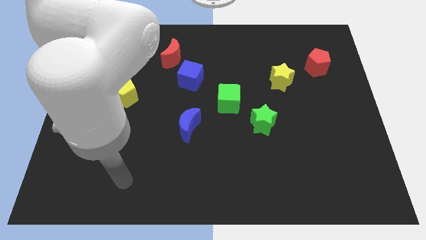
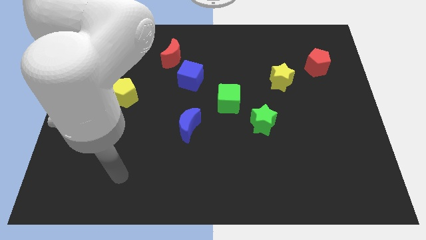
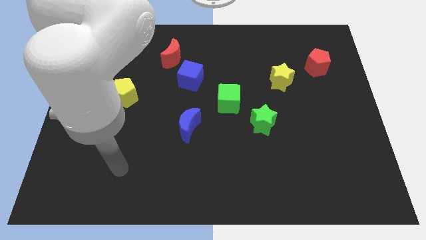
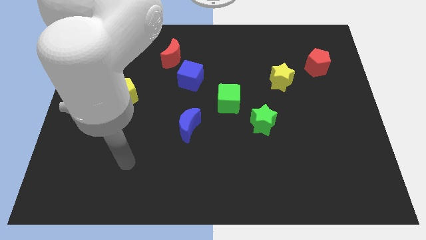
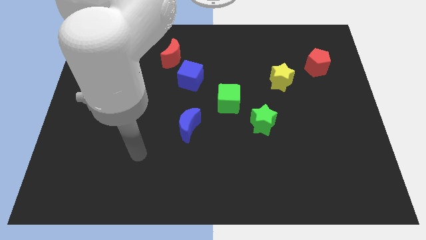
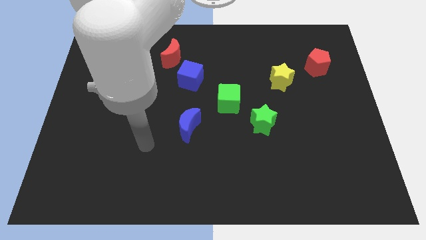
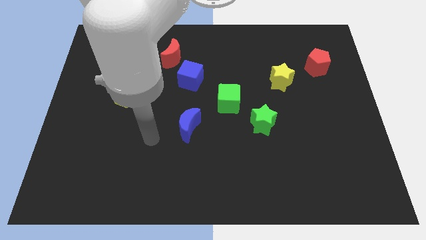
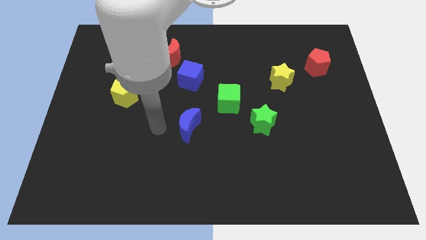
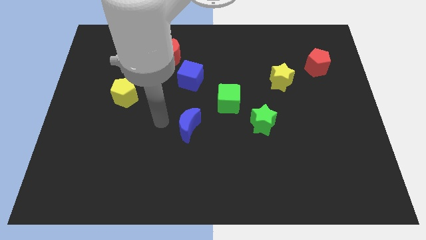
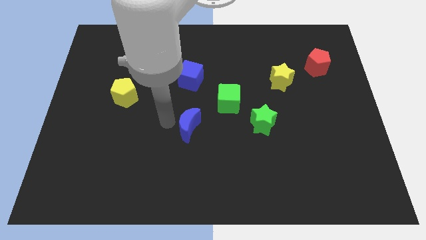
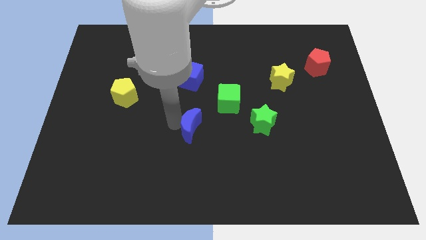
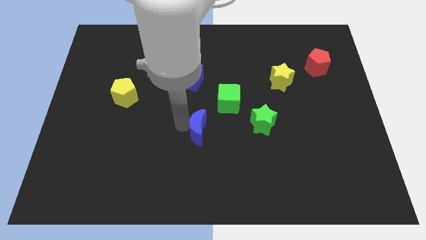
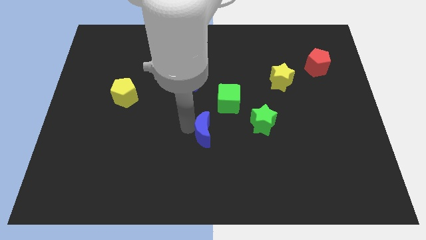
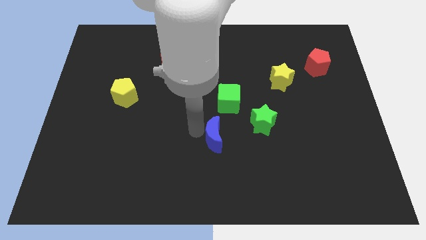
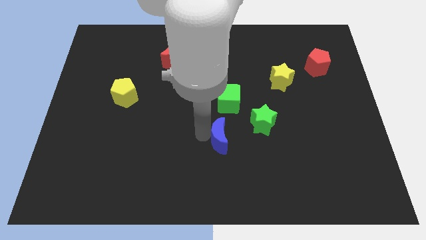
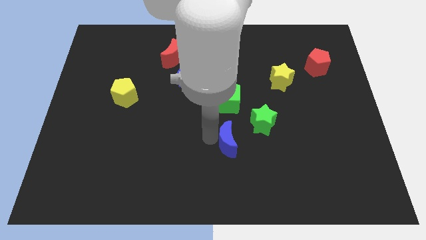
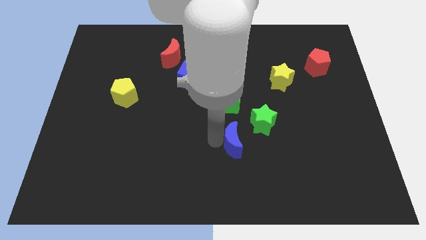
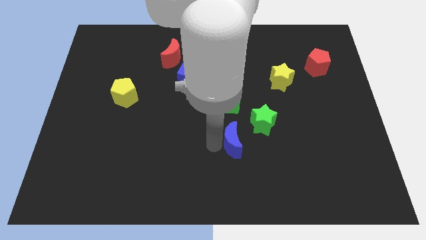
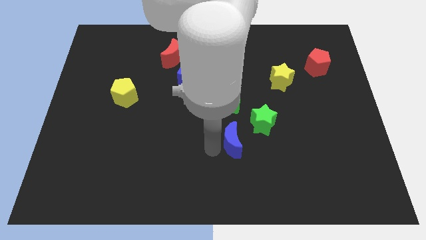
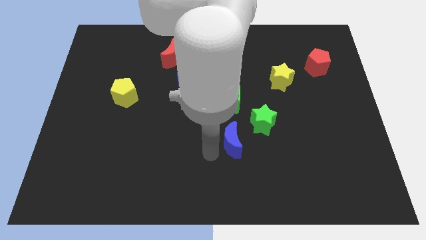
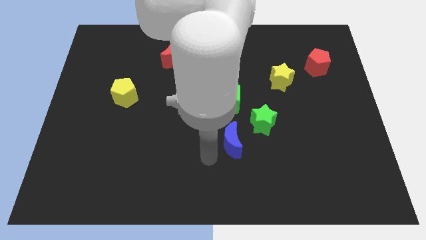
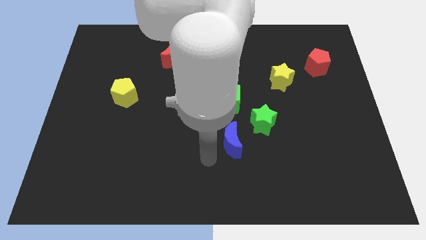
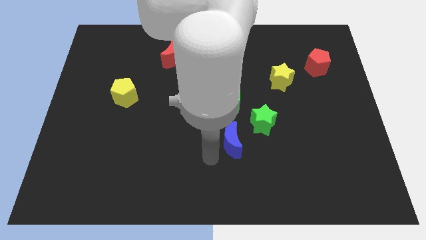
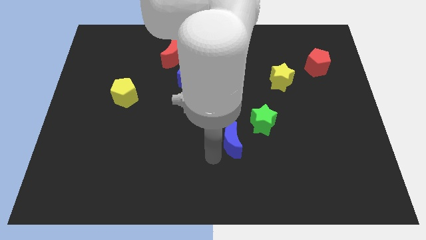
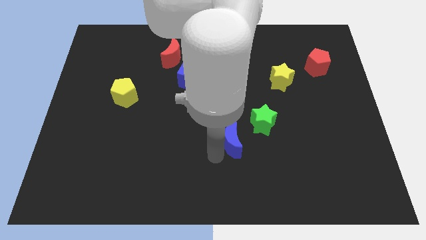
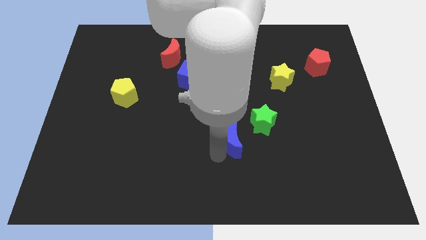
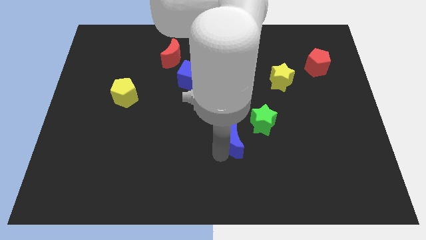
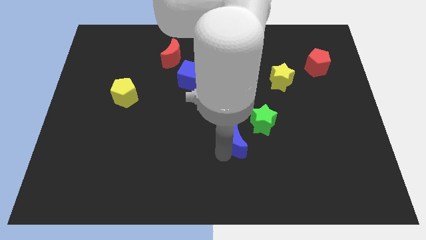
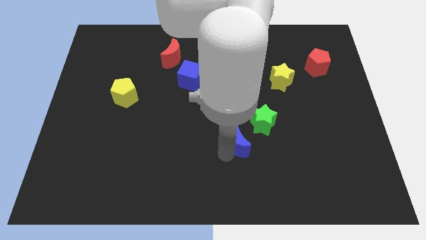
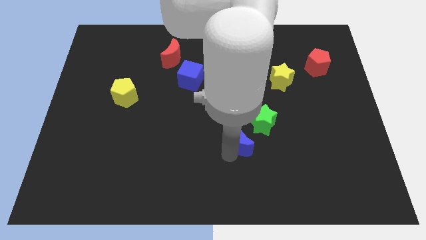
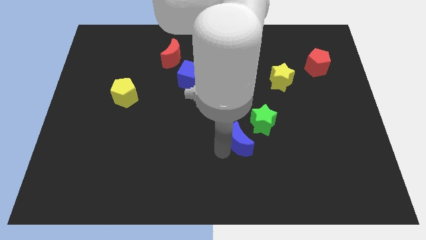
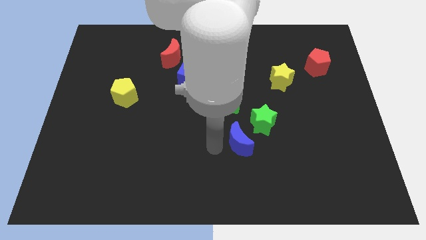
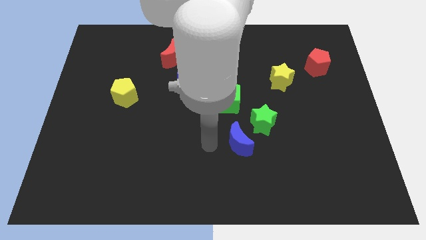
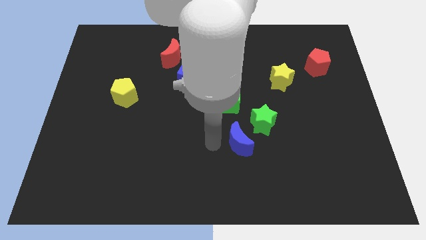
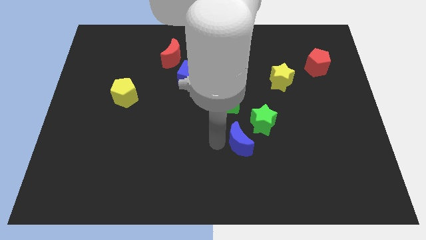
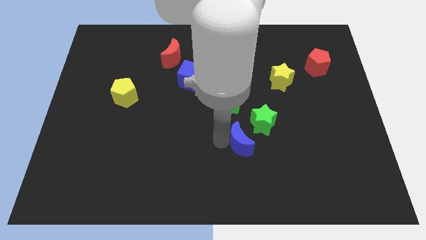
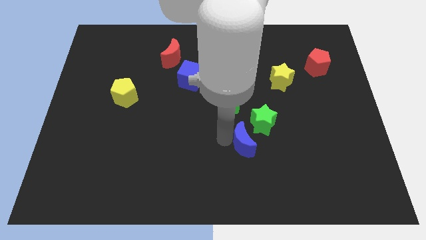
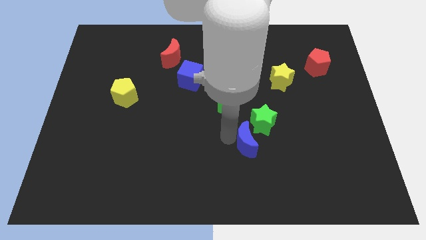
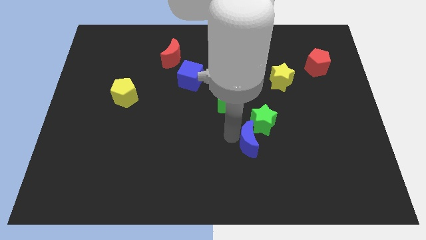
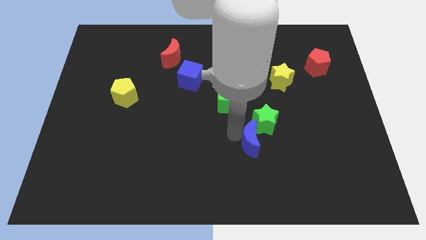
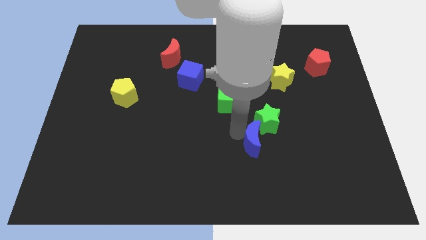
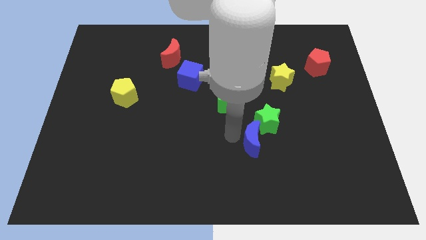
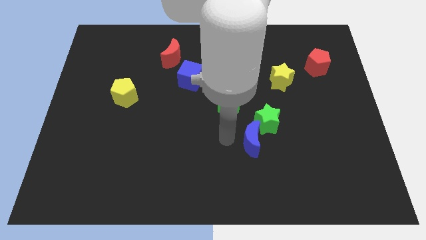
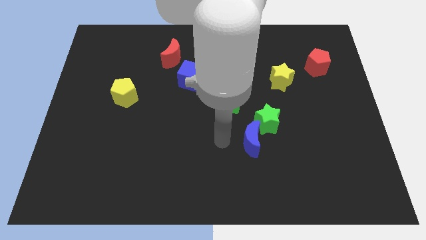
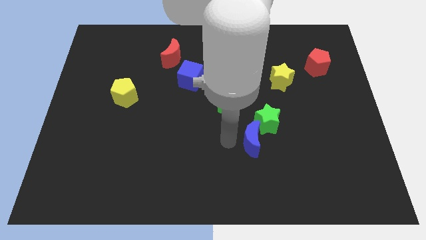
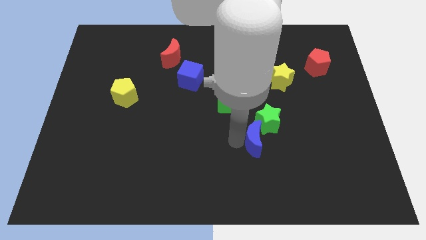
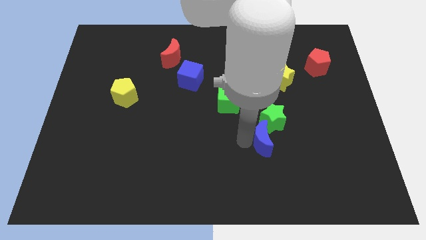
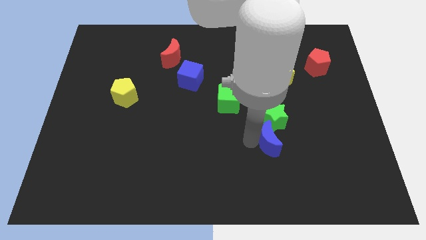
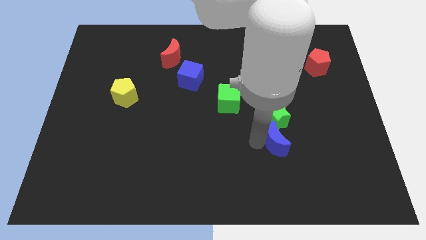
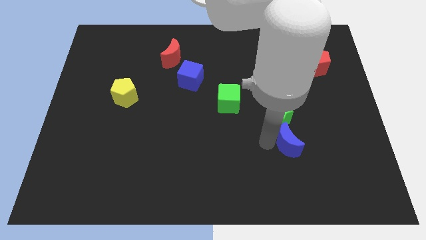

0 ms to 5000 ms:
slide the blue moon right

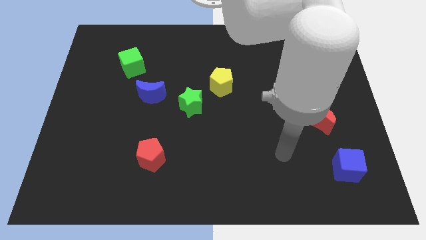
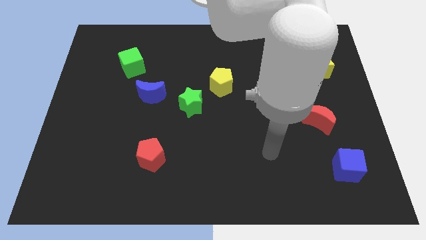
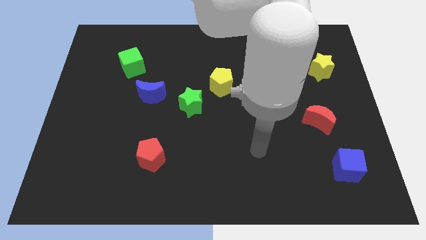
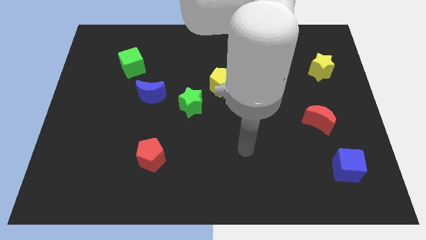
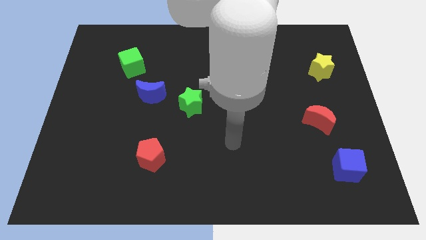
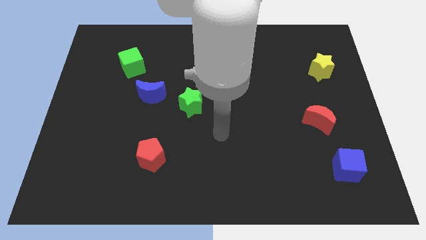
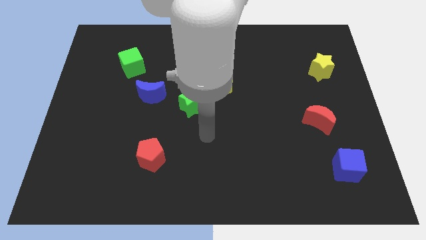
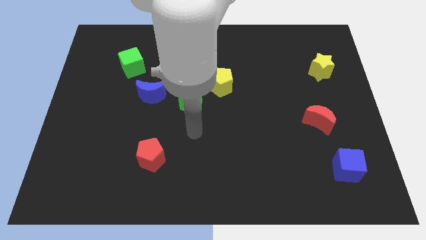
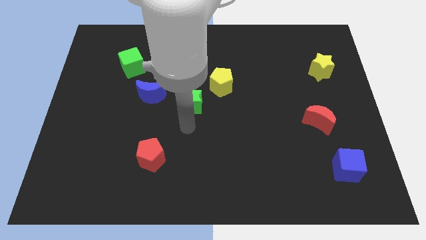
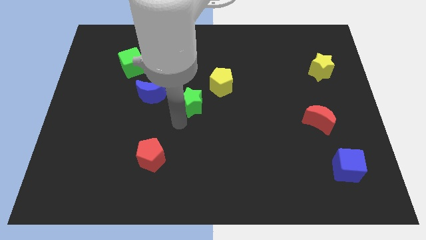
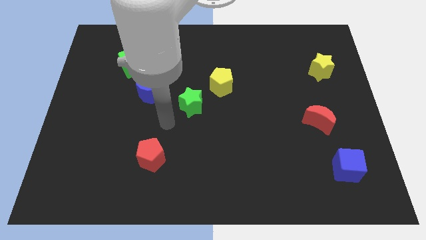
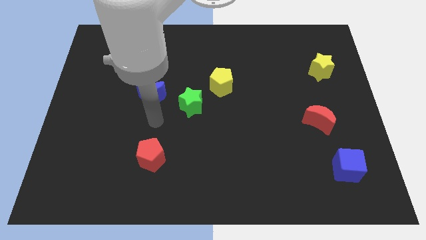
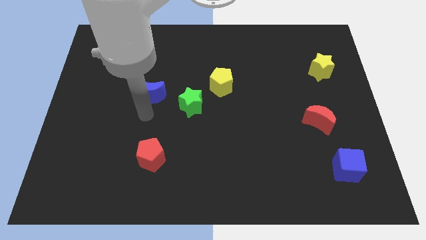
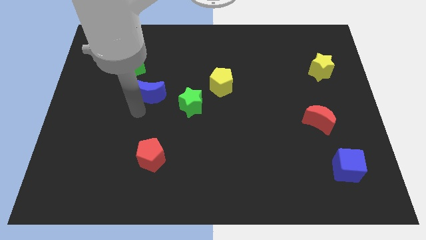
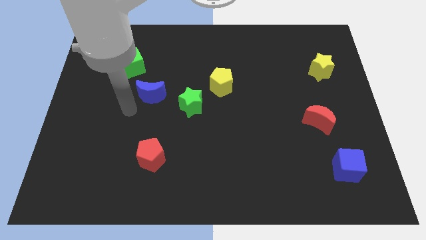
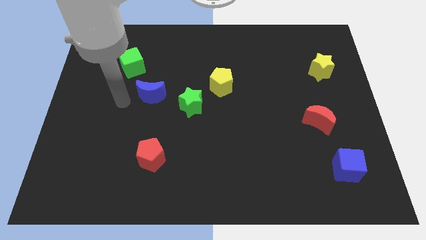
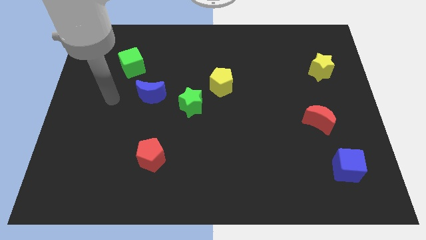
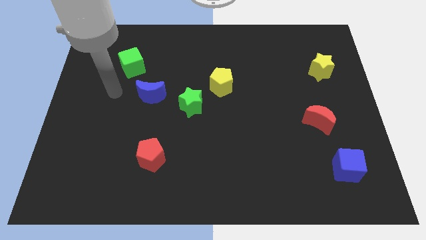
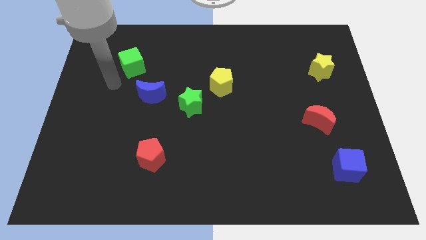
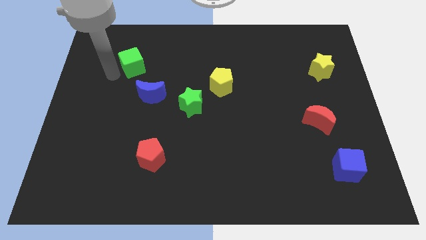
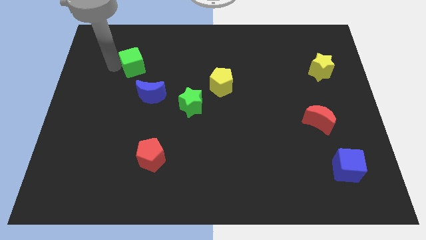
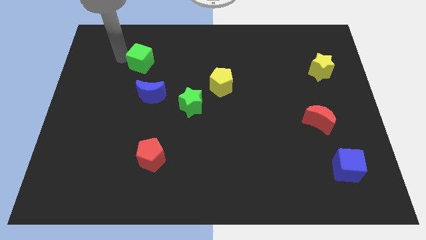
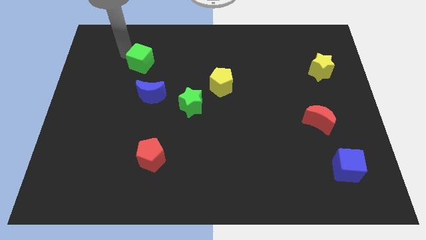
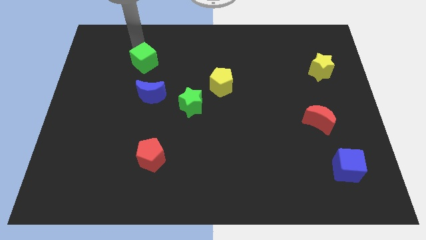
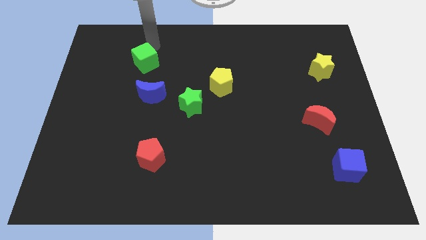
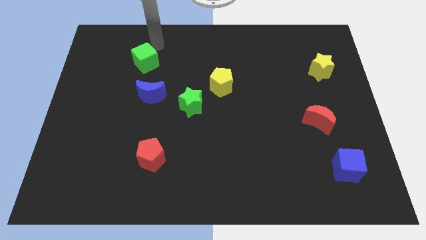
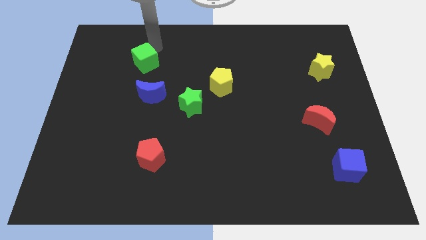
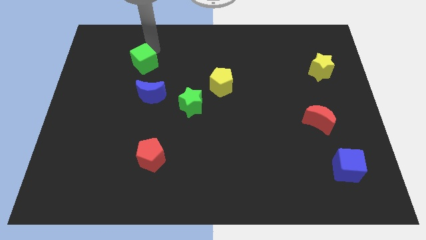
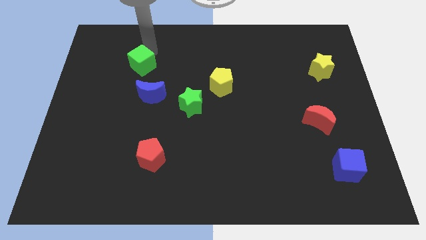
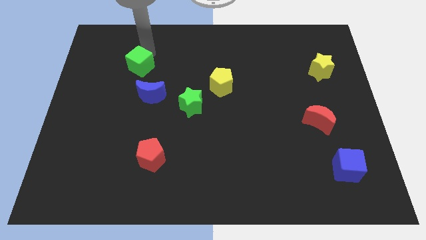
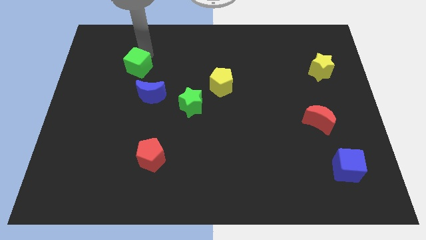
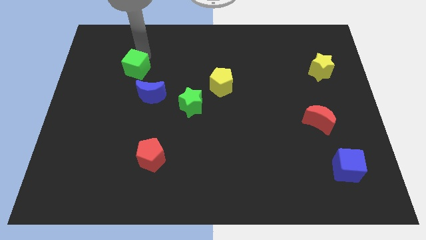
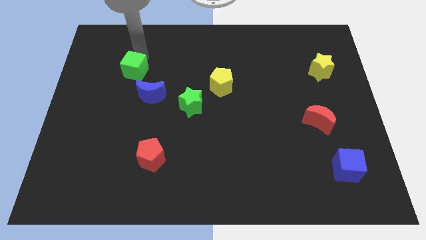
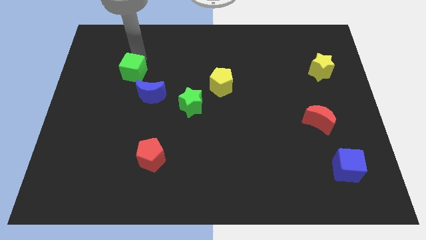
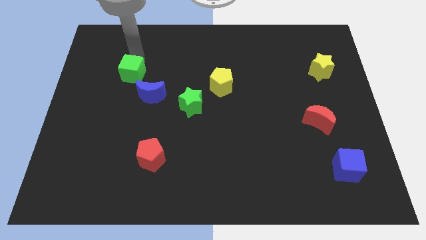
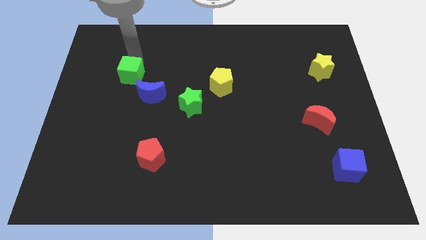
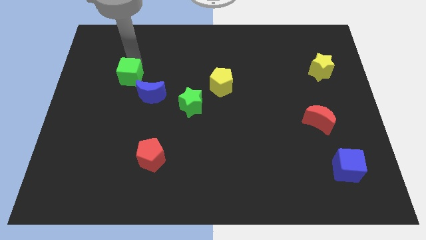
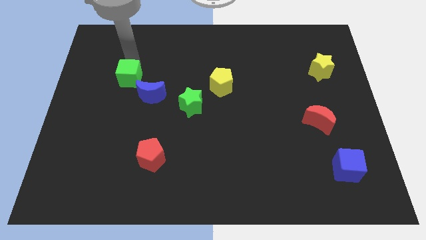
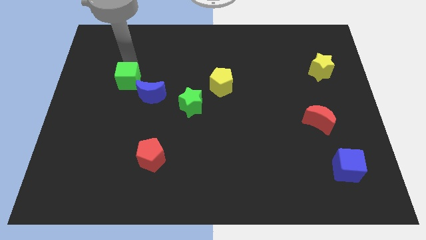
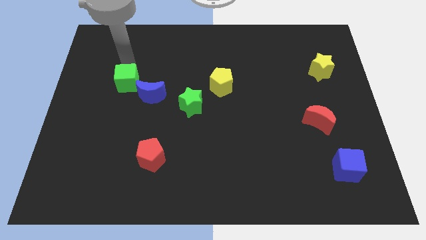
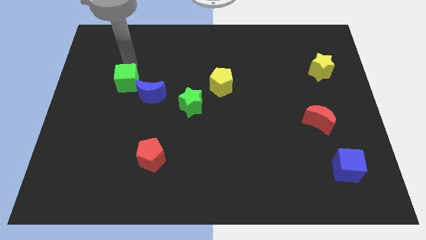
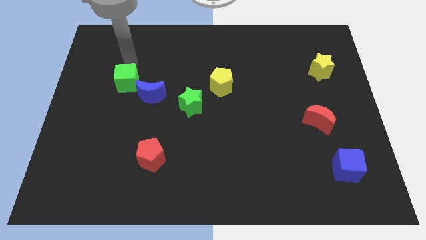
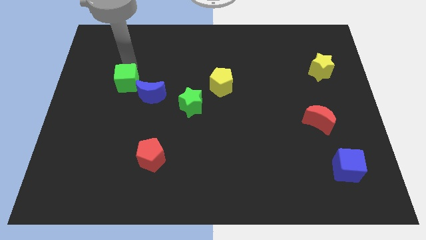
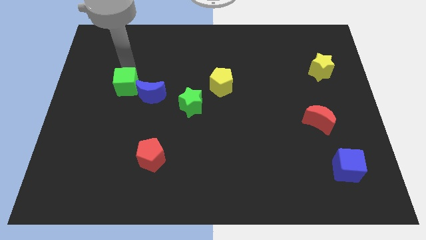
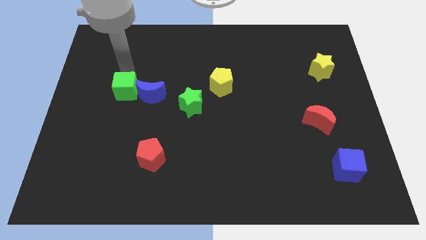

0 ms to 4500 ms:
push the green cube slightly downwards
